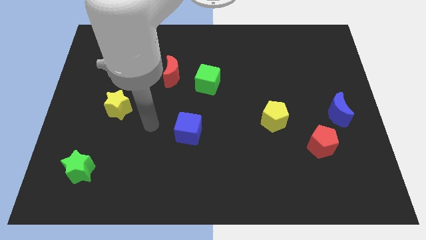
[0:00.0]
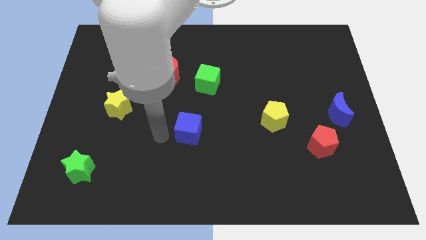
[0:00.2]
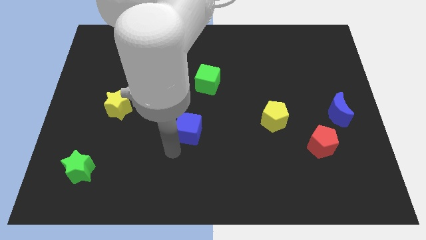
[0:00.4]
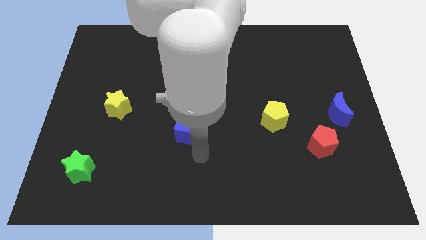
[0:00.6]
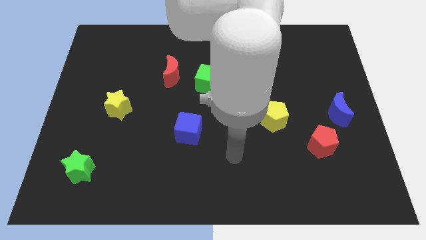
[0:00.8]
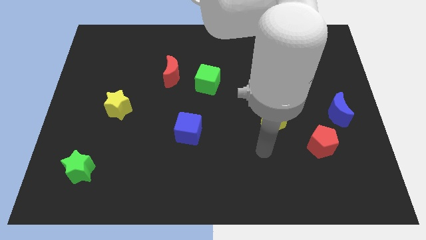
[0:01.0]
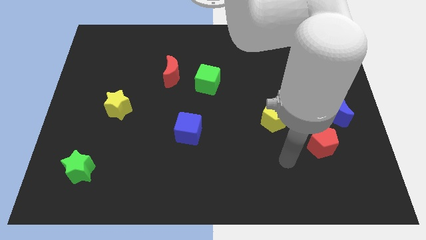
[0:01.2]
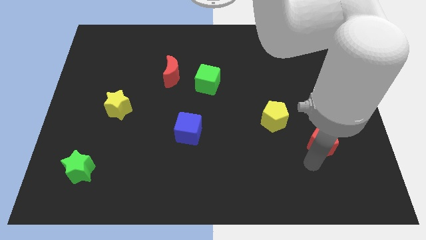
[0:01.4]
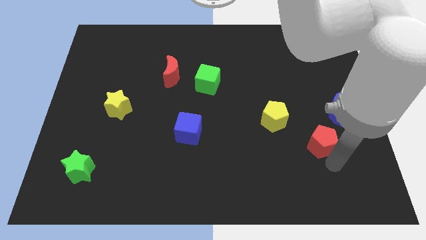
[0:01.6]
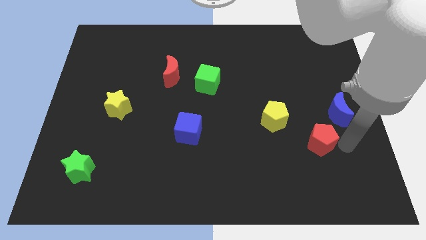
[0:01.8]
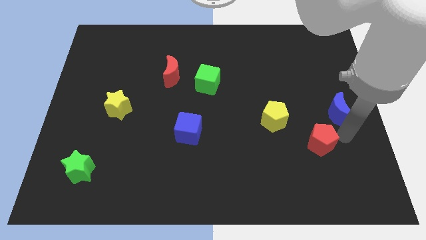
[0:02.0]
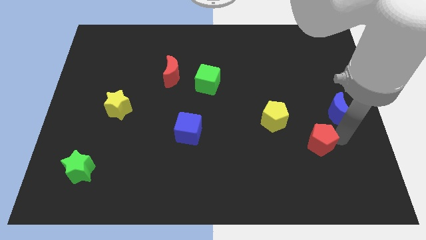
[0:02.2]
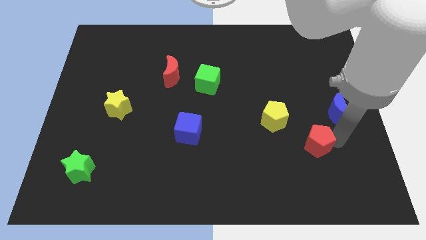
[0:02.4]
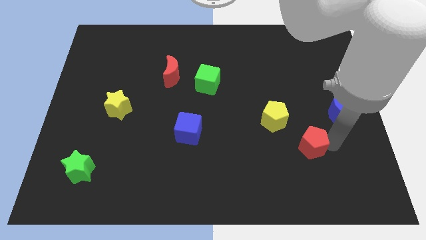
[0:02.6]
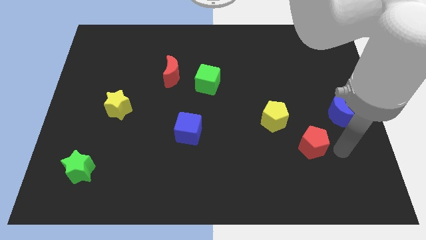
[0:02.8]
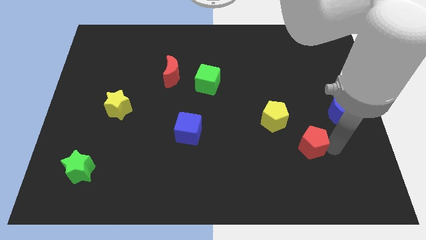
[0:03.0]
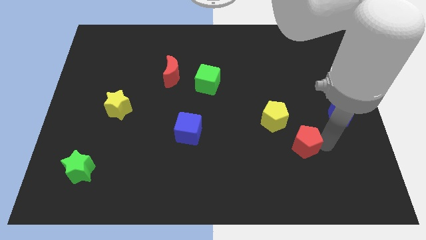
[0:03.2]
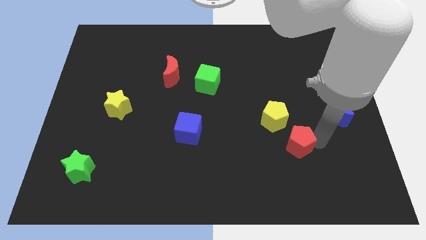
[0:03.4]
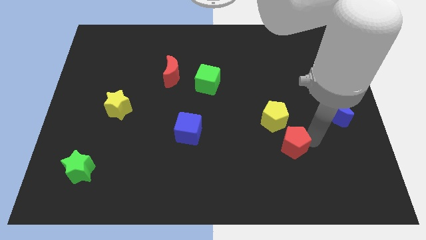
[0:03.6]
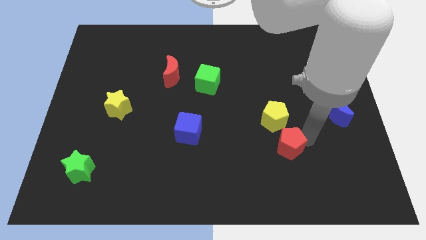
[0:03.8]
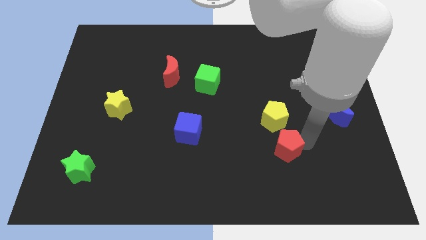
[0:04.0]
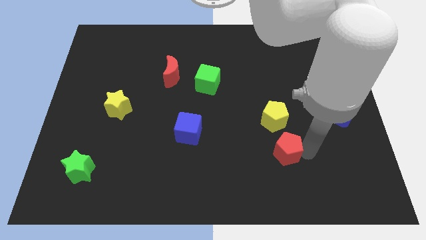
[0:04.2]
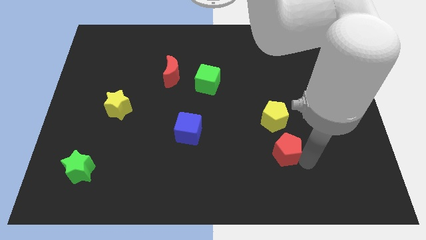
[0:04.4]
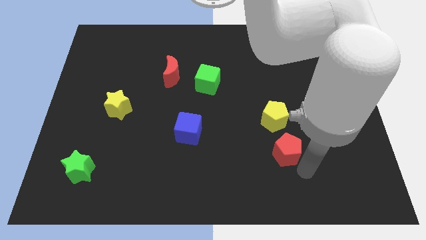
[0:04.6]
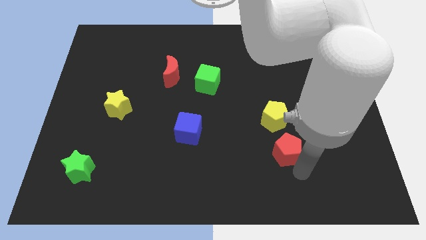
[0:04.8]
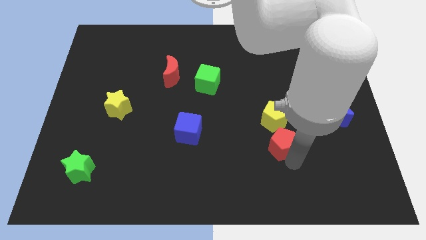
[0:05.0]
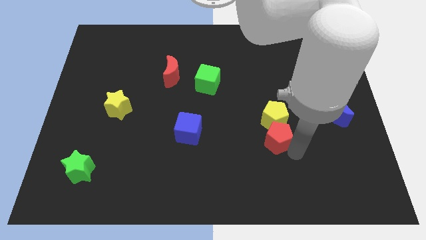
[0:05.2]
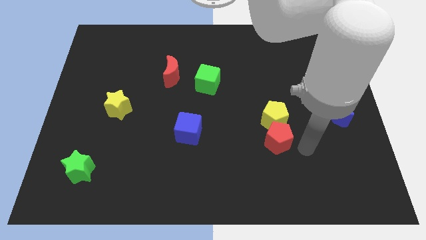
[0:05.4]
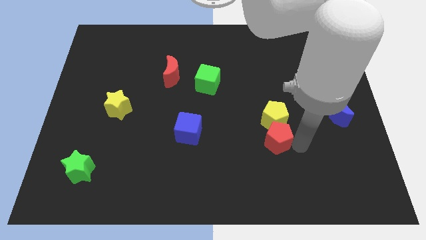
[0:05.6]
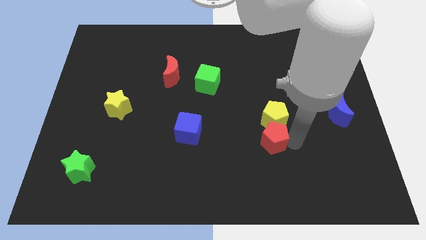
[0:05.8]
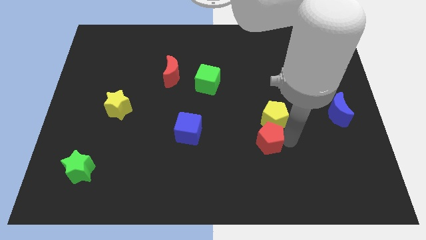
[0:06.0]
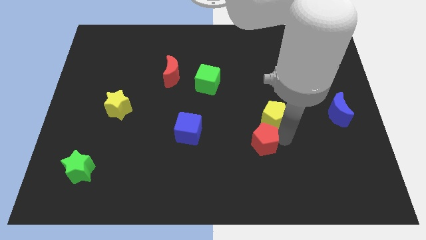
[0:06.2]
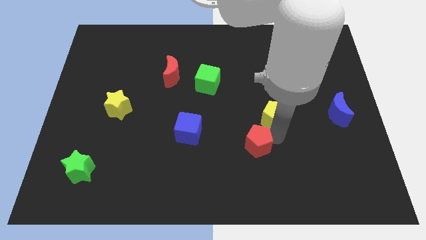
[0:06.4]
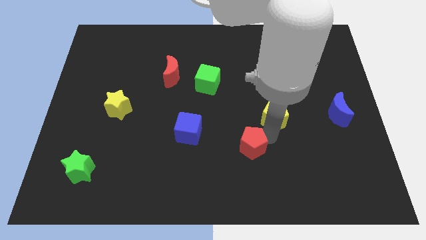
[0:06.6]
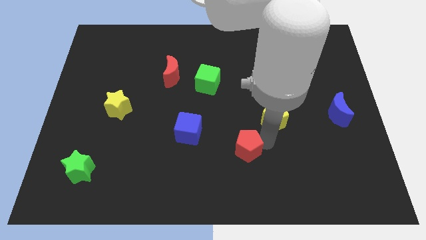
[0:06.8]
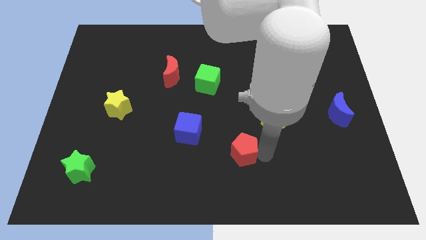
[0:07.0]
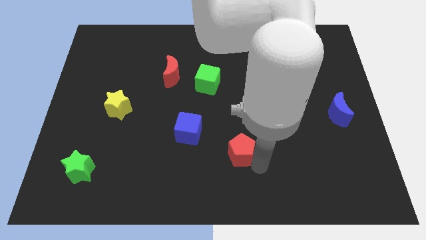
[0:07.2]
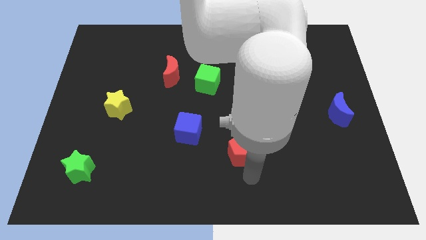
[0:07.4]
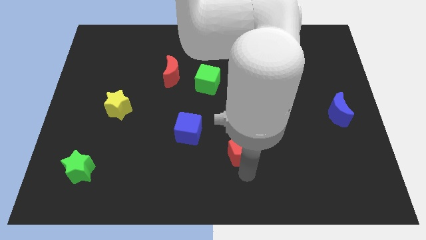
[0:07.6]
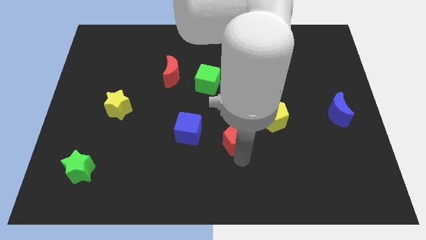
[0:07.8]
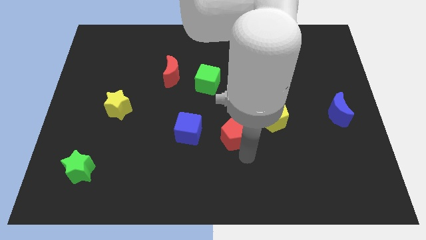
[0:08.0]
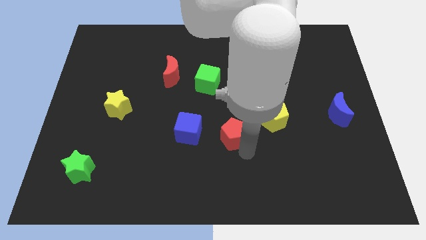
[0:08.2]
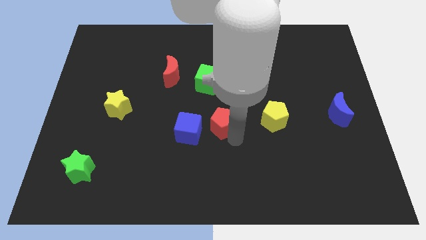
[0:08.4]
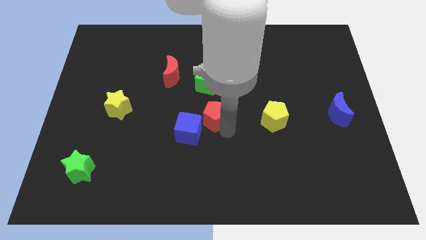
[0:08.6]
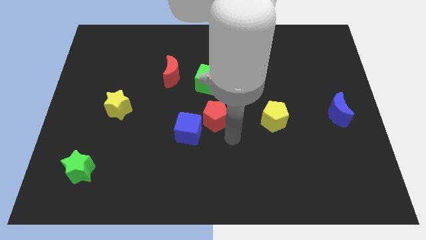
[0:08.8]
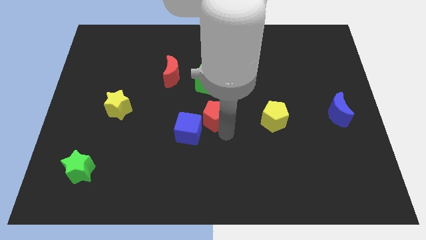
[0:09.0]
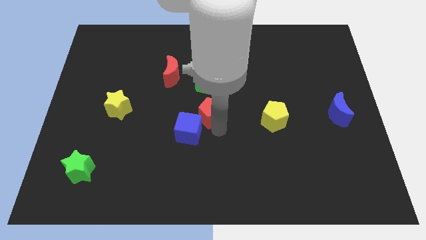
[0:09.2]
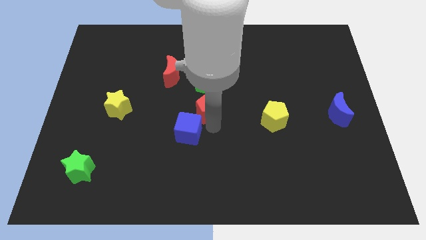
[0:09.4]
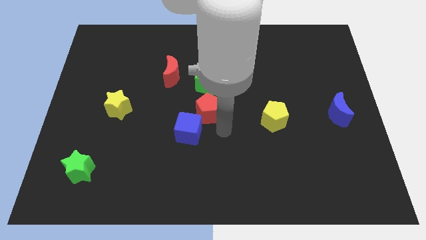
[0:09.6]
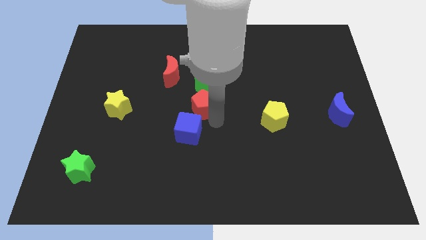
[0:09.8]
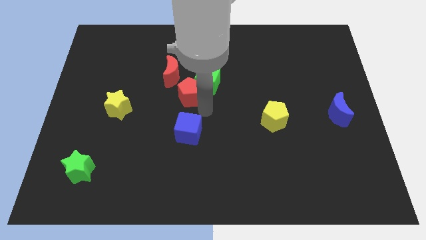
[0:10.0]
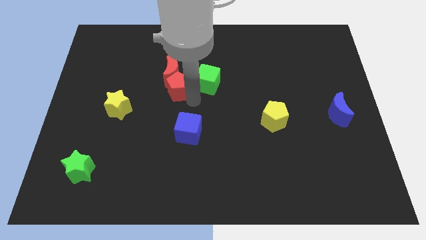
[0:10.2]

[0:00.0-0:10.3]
move the red pentagon next to the red moon

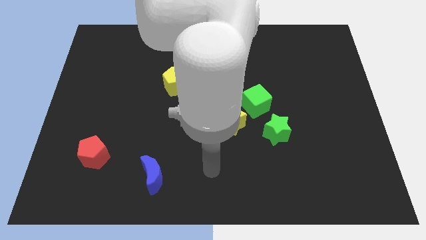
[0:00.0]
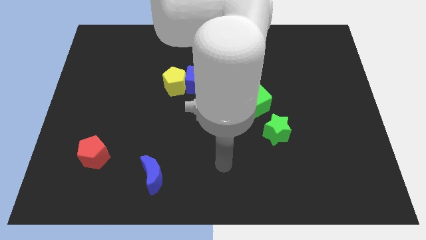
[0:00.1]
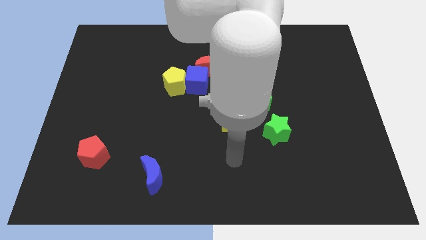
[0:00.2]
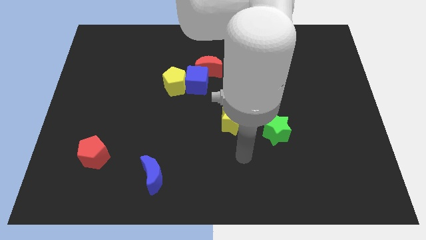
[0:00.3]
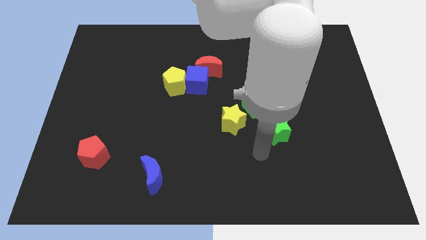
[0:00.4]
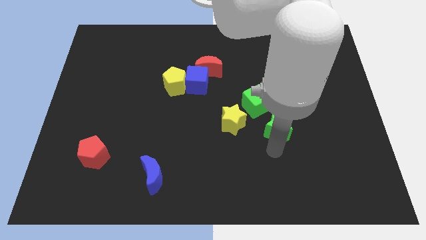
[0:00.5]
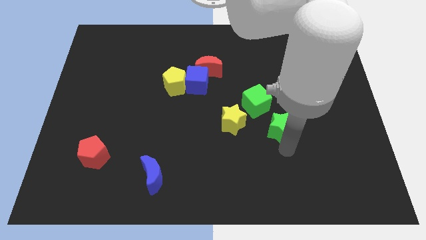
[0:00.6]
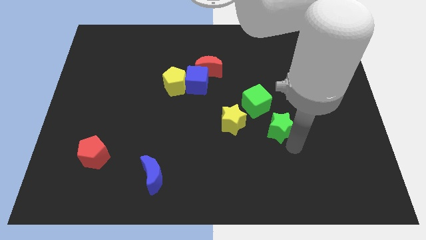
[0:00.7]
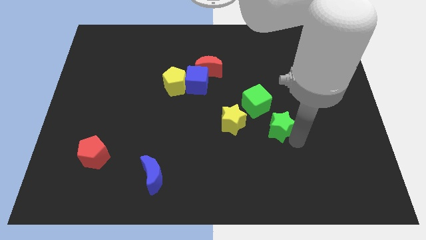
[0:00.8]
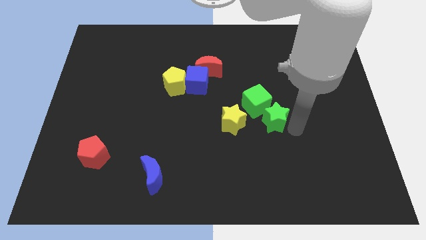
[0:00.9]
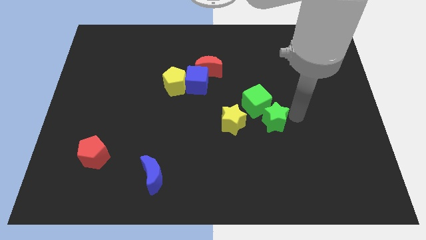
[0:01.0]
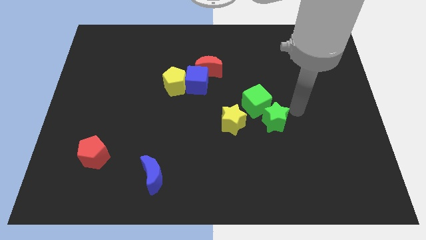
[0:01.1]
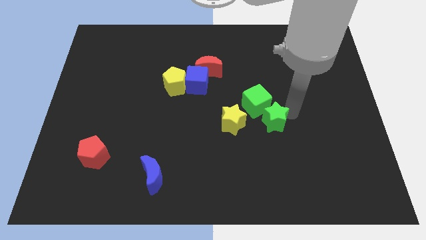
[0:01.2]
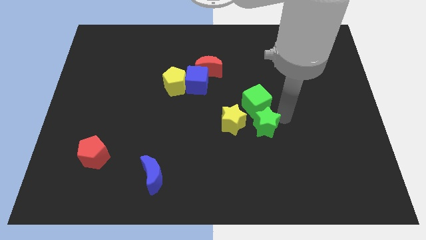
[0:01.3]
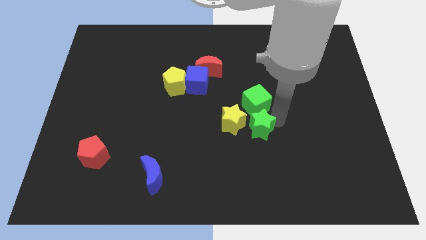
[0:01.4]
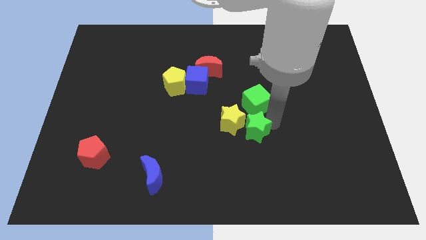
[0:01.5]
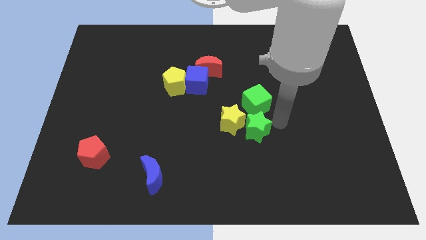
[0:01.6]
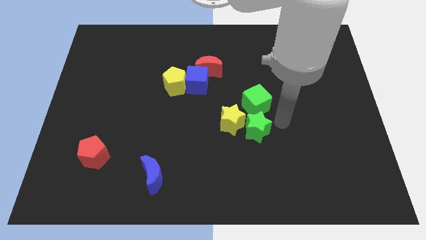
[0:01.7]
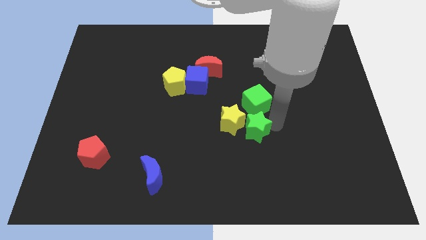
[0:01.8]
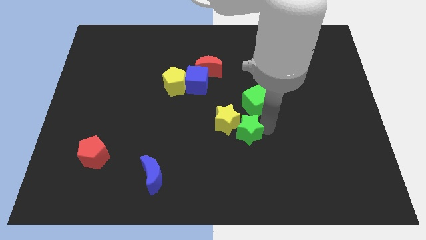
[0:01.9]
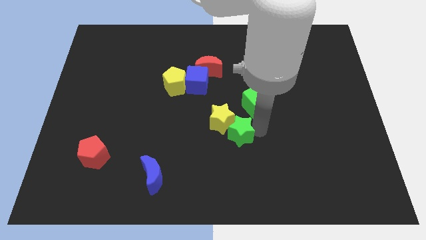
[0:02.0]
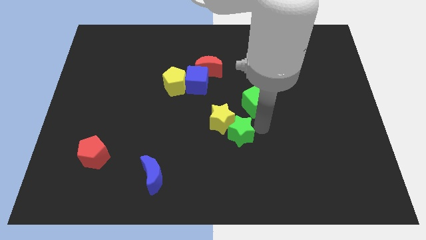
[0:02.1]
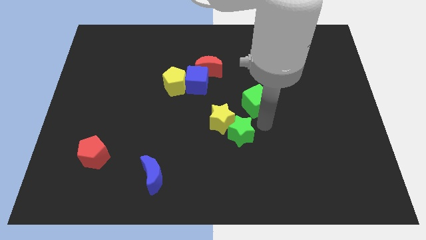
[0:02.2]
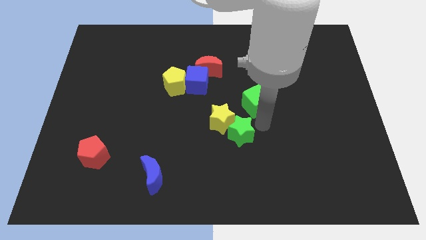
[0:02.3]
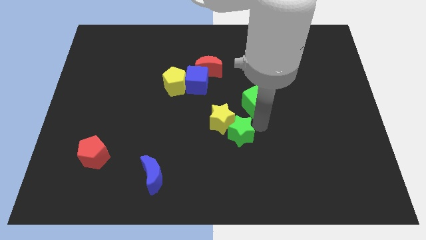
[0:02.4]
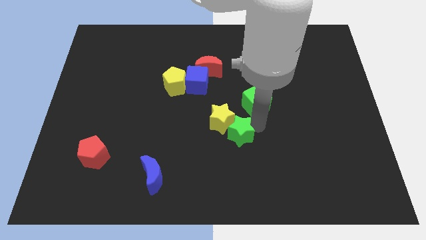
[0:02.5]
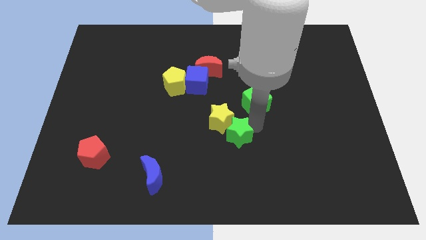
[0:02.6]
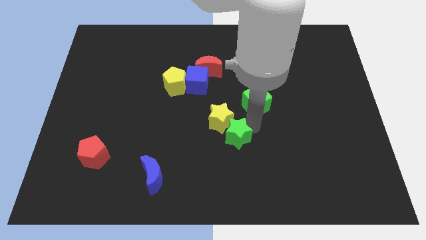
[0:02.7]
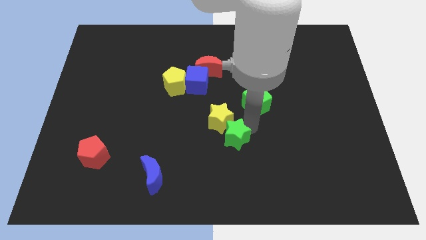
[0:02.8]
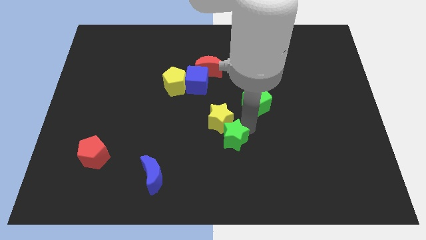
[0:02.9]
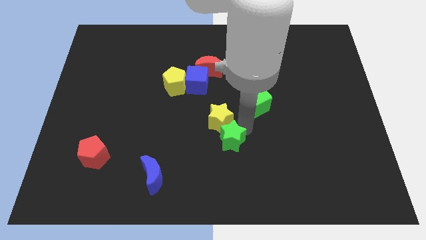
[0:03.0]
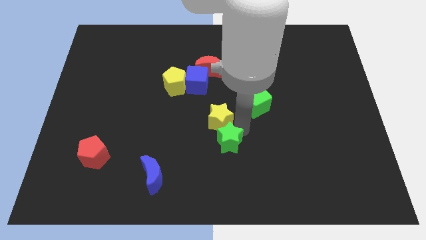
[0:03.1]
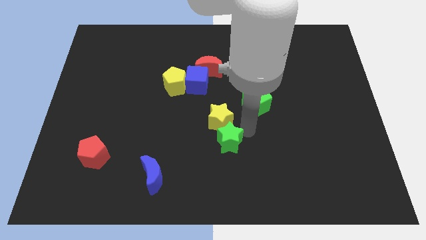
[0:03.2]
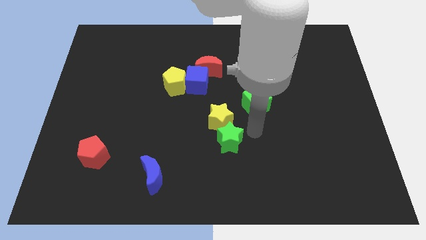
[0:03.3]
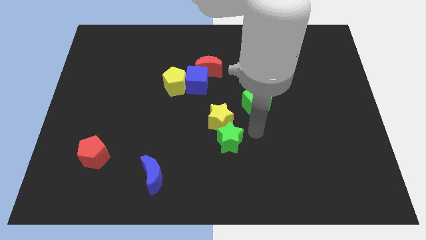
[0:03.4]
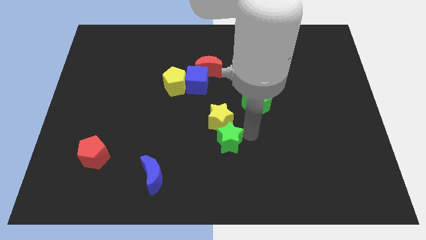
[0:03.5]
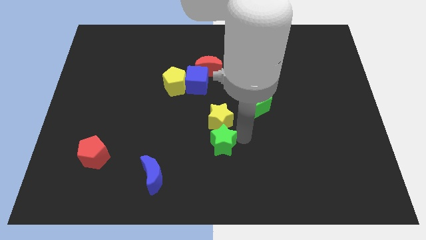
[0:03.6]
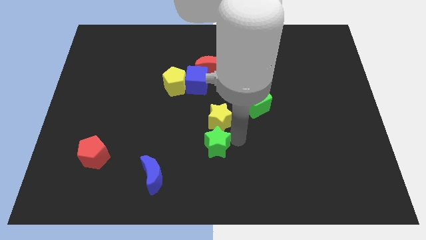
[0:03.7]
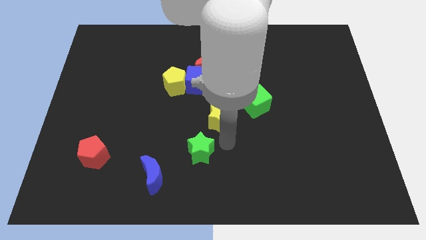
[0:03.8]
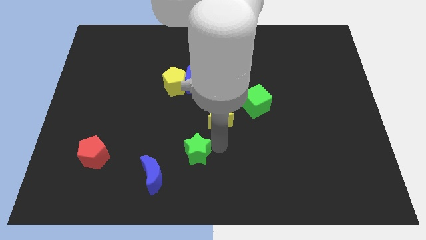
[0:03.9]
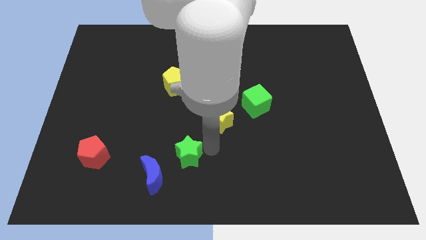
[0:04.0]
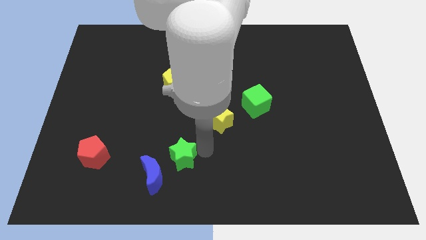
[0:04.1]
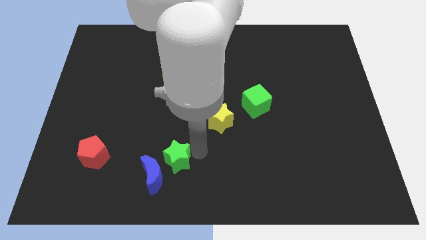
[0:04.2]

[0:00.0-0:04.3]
put the green star towards the blue moon
